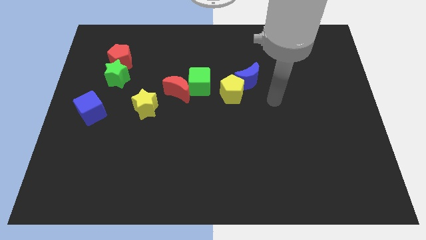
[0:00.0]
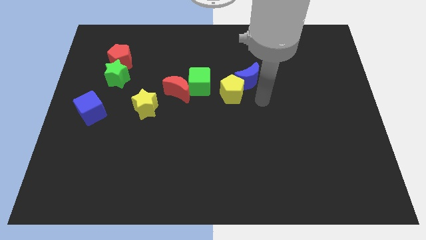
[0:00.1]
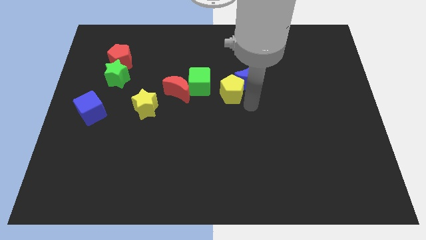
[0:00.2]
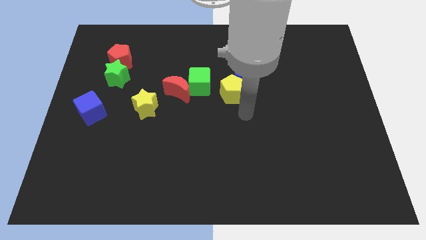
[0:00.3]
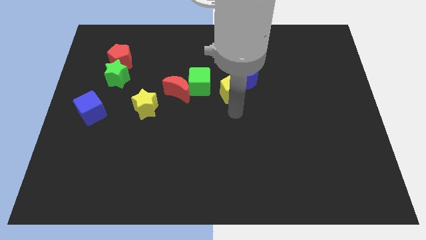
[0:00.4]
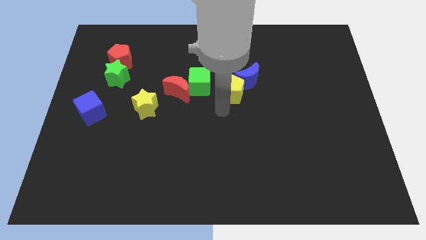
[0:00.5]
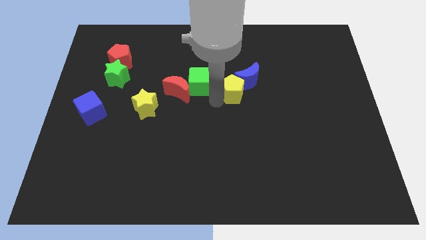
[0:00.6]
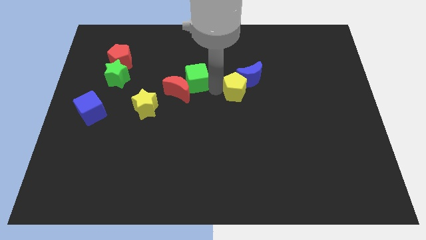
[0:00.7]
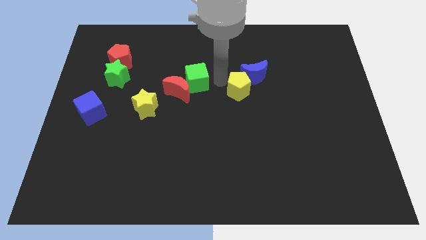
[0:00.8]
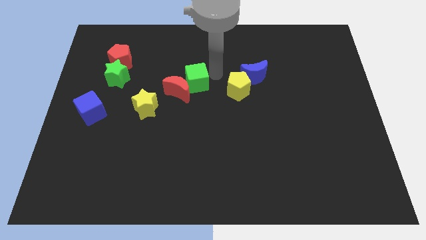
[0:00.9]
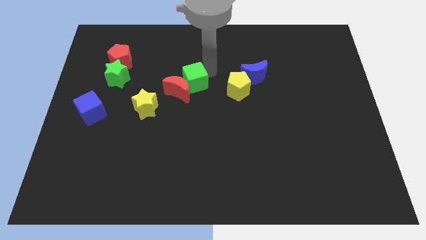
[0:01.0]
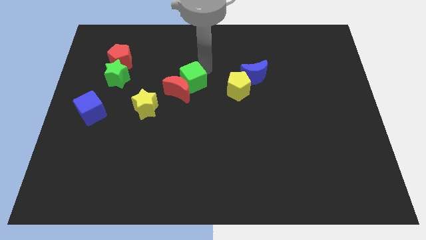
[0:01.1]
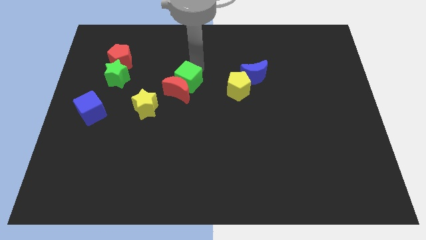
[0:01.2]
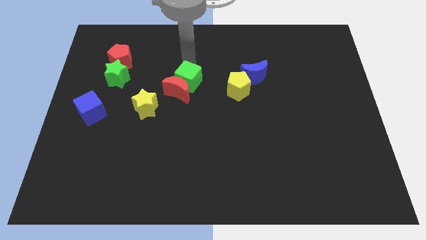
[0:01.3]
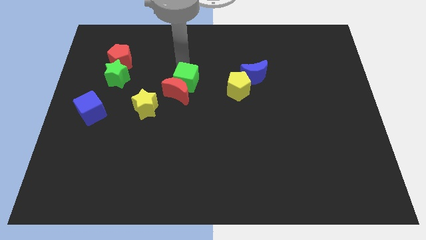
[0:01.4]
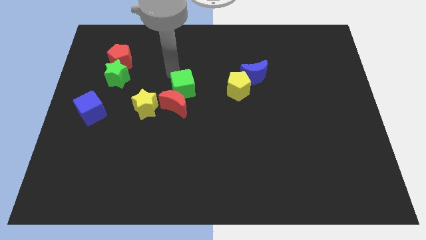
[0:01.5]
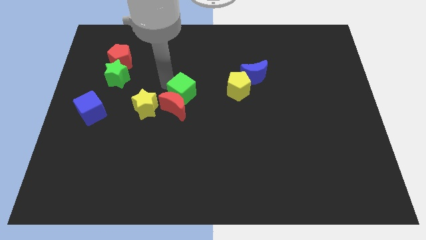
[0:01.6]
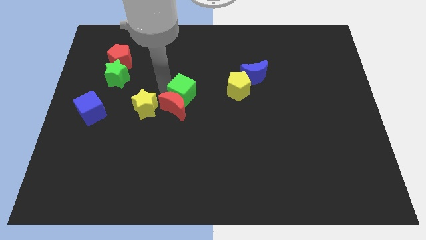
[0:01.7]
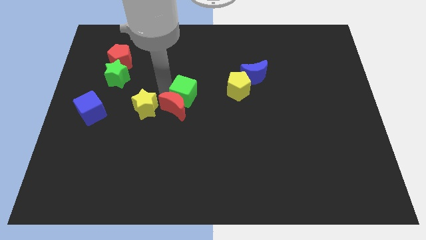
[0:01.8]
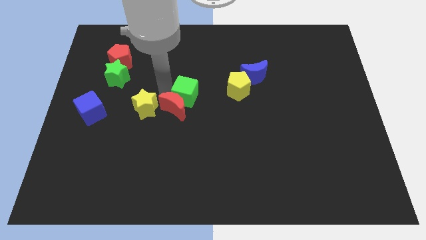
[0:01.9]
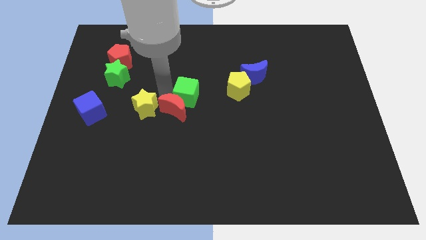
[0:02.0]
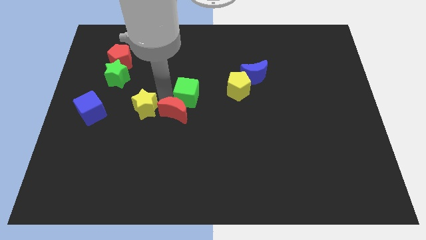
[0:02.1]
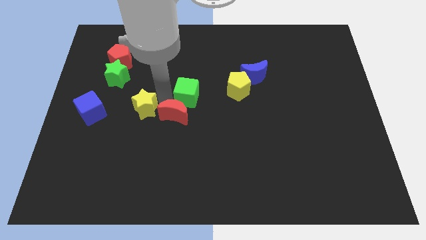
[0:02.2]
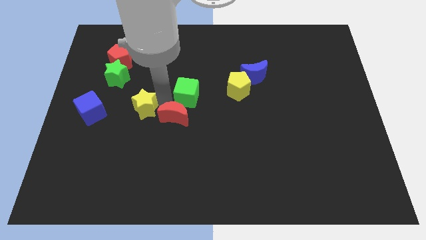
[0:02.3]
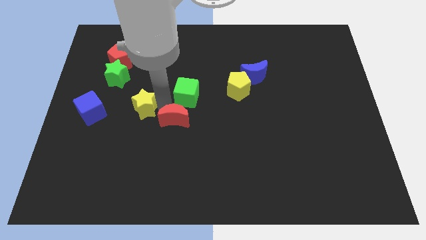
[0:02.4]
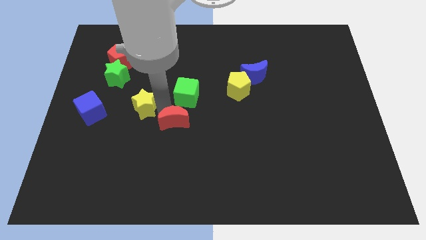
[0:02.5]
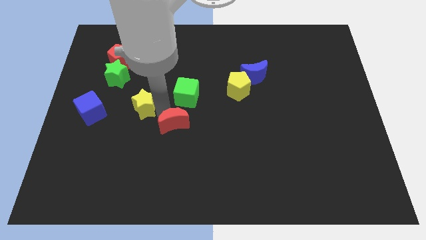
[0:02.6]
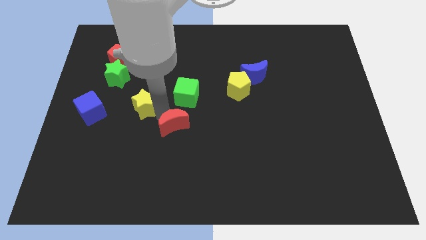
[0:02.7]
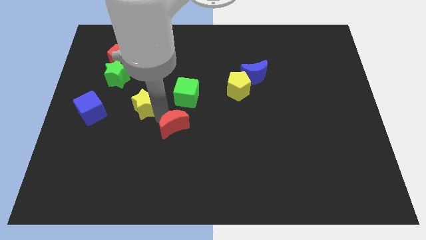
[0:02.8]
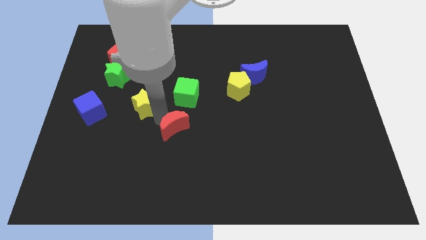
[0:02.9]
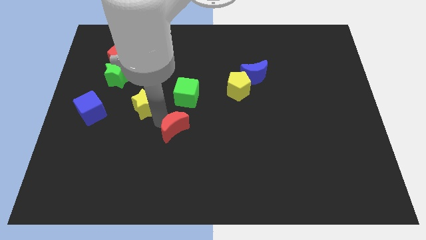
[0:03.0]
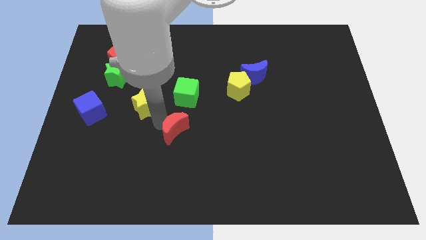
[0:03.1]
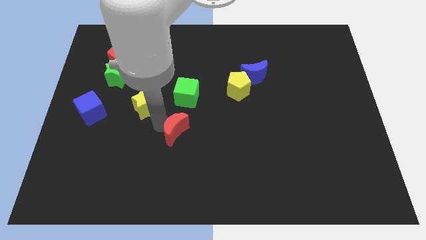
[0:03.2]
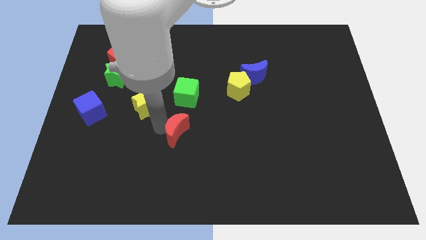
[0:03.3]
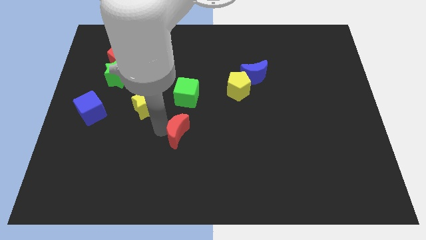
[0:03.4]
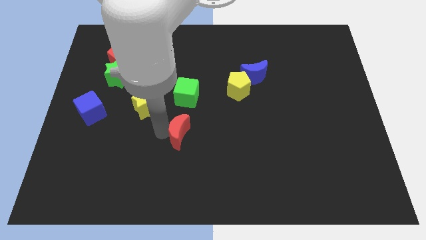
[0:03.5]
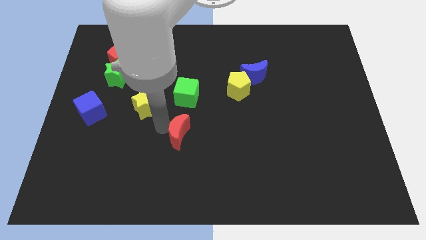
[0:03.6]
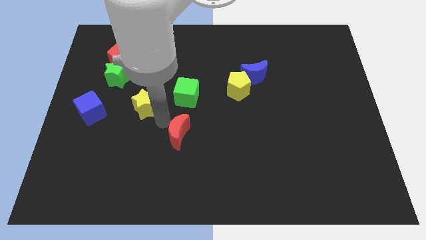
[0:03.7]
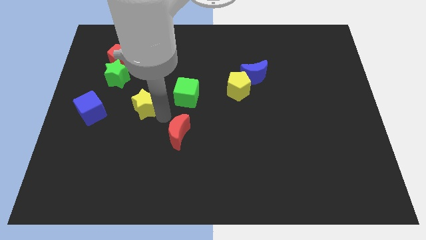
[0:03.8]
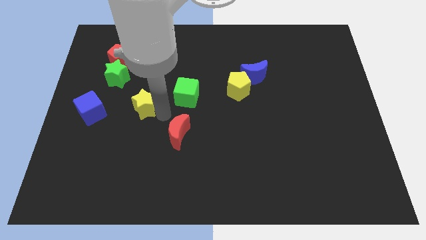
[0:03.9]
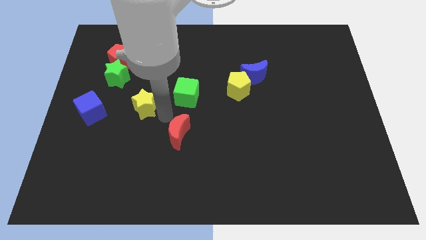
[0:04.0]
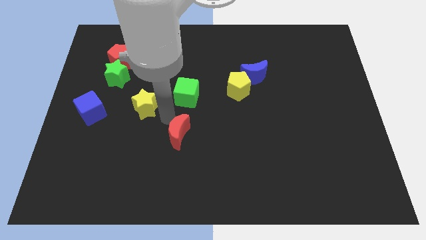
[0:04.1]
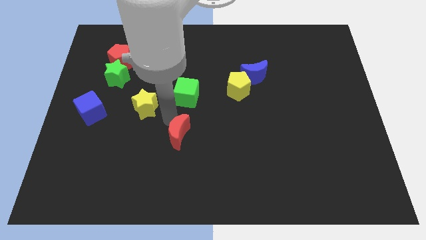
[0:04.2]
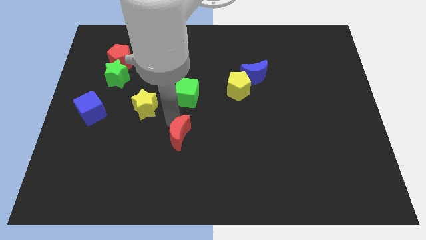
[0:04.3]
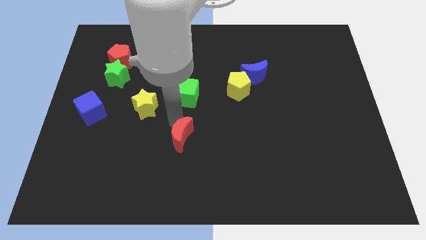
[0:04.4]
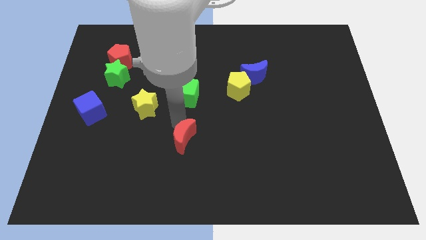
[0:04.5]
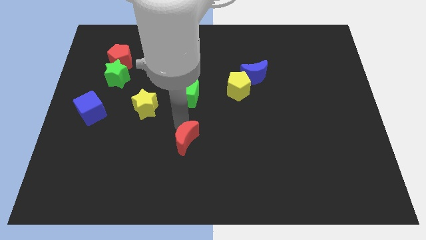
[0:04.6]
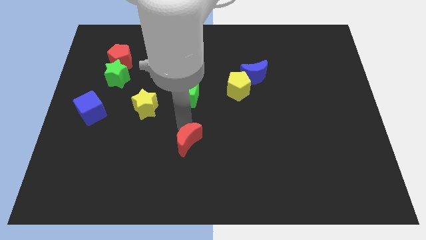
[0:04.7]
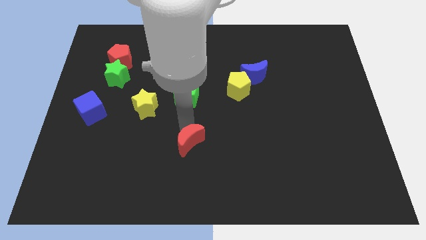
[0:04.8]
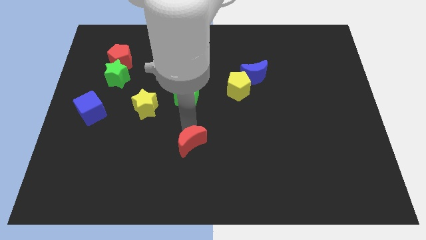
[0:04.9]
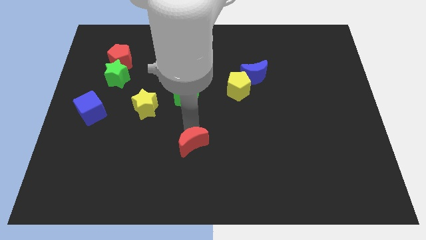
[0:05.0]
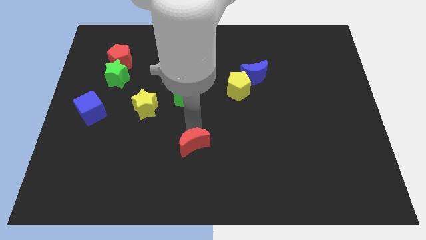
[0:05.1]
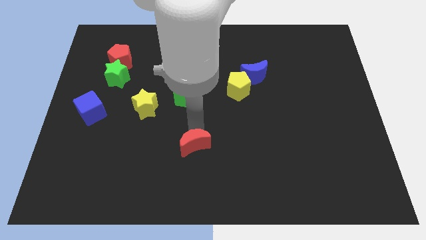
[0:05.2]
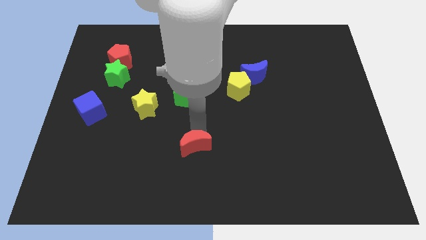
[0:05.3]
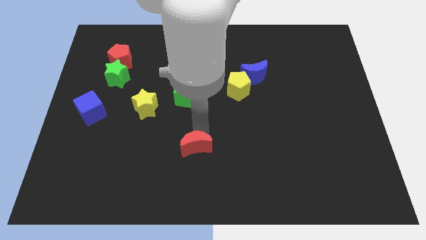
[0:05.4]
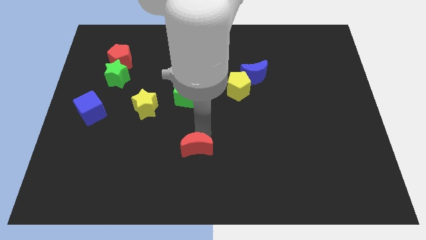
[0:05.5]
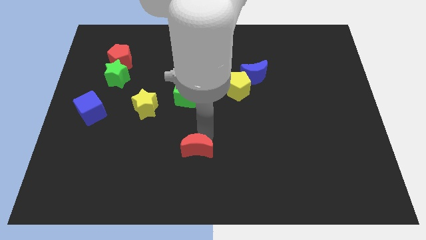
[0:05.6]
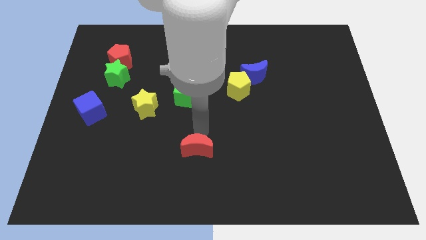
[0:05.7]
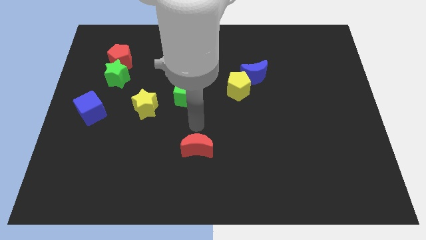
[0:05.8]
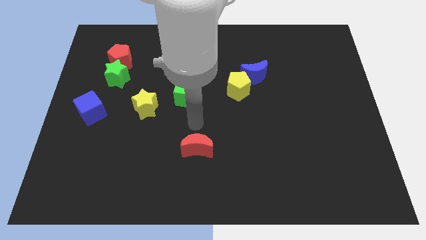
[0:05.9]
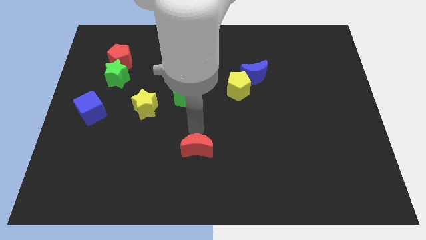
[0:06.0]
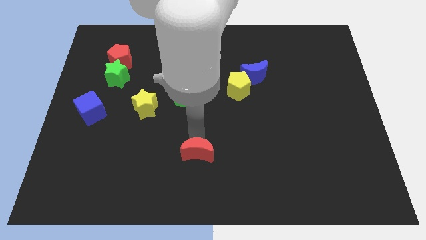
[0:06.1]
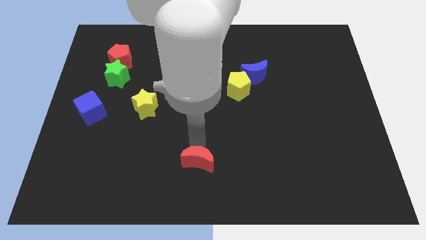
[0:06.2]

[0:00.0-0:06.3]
slide the red moon to the bottom side
